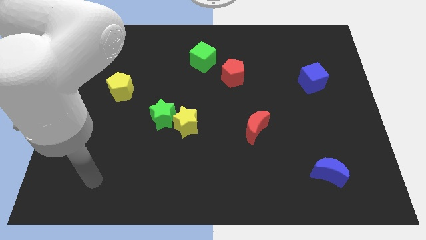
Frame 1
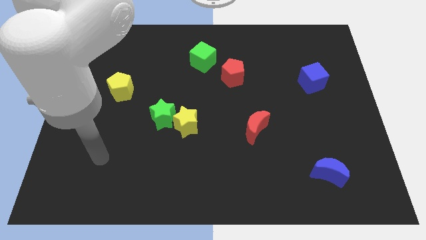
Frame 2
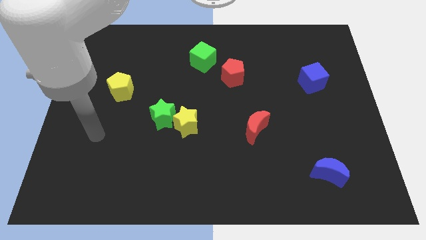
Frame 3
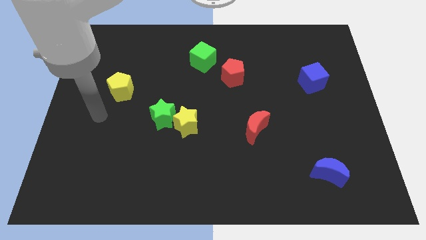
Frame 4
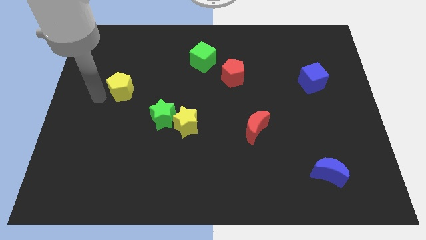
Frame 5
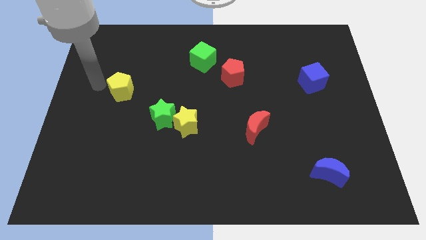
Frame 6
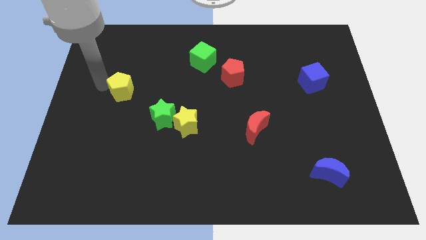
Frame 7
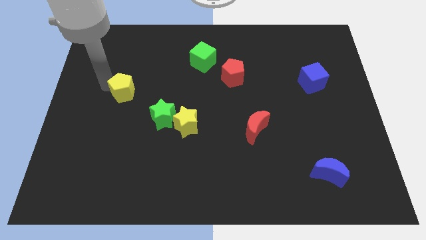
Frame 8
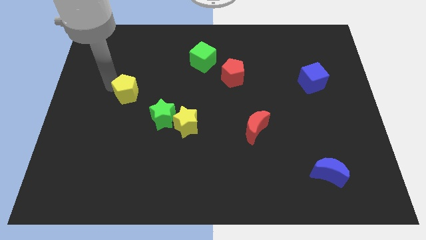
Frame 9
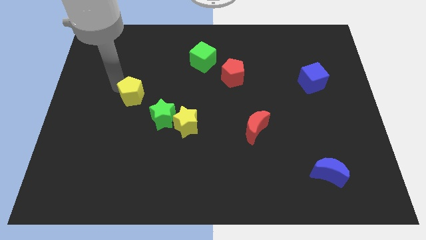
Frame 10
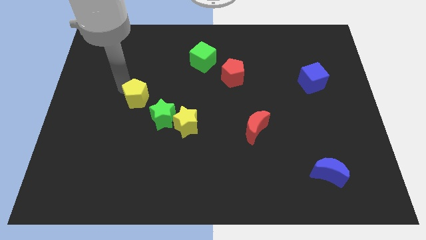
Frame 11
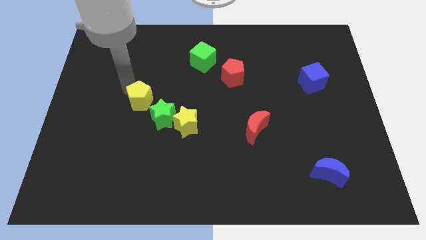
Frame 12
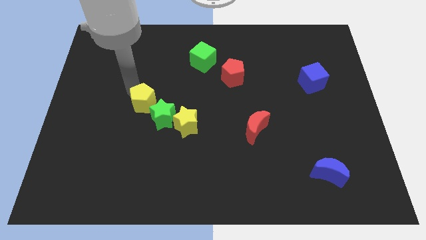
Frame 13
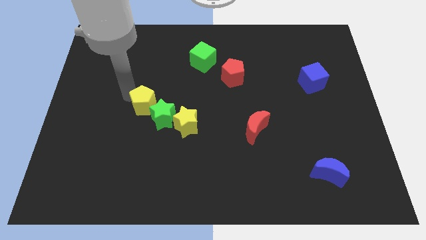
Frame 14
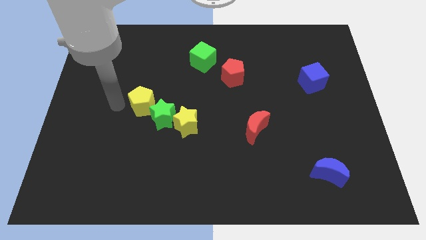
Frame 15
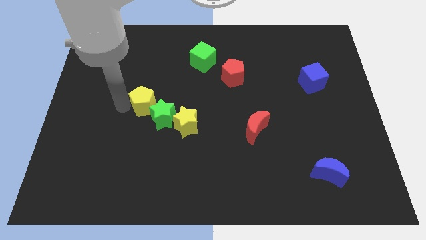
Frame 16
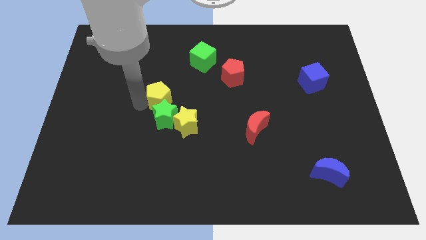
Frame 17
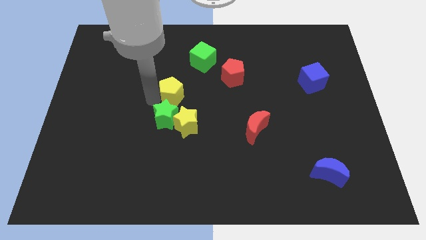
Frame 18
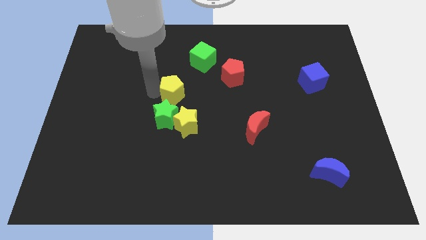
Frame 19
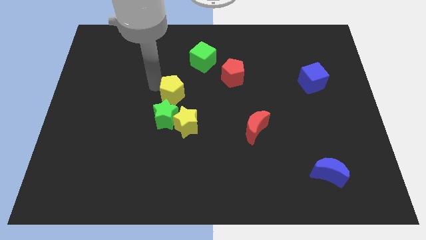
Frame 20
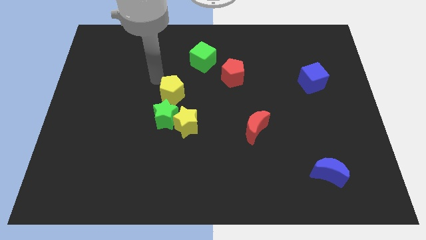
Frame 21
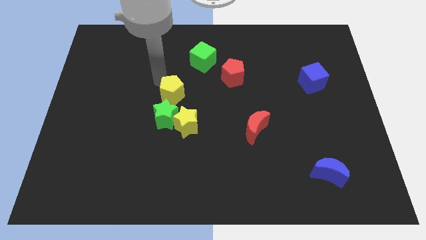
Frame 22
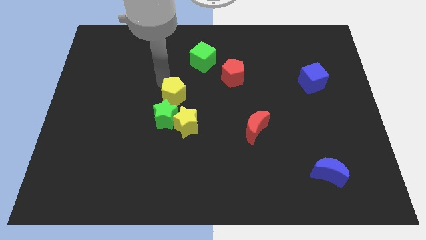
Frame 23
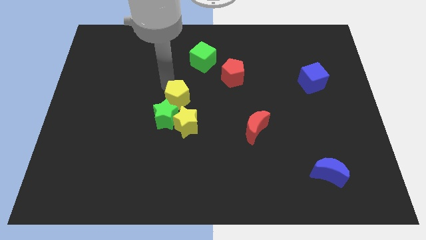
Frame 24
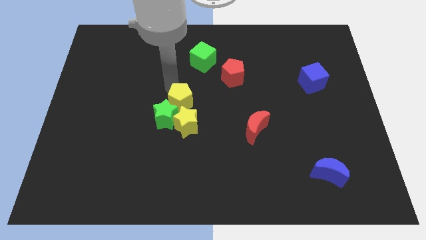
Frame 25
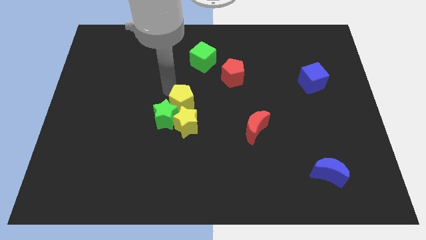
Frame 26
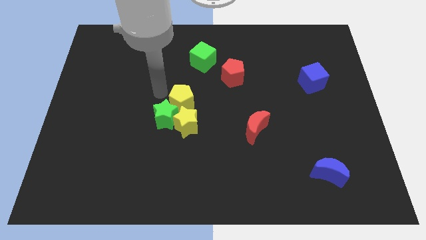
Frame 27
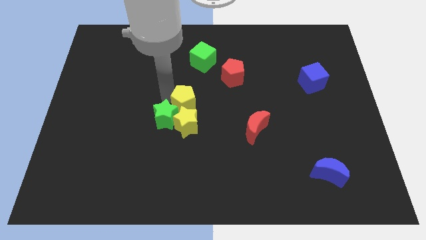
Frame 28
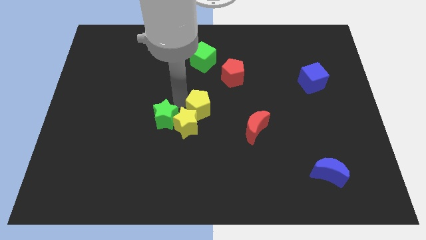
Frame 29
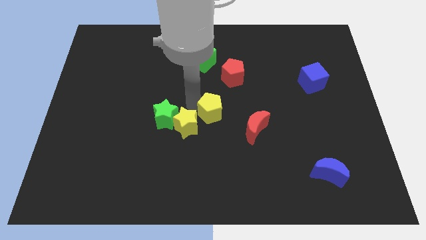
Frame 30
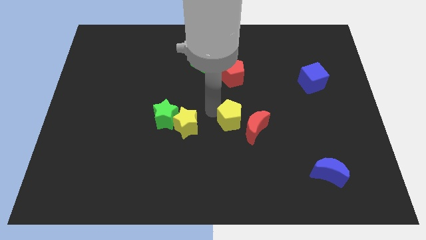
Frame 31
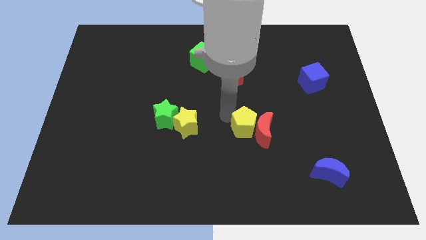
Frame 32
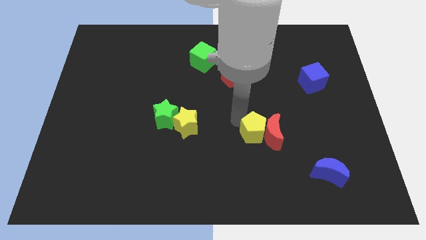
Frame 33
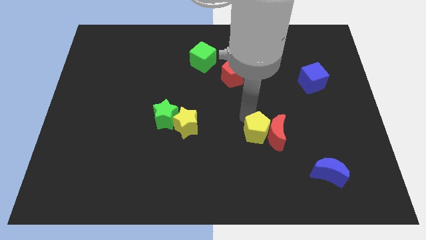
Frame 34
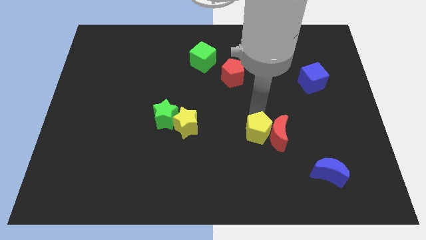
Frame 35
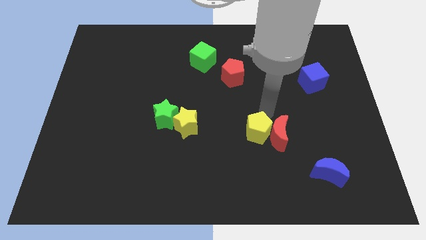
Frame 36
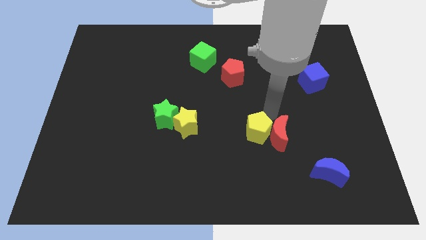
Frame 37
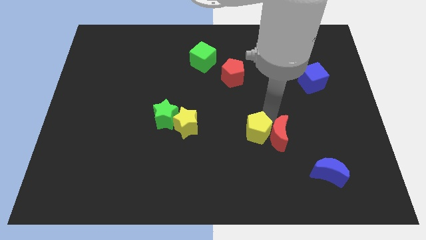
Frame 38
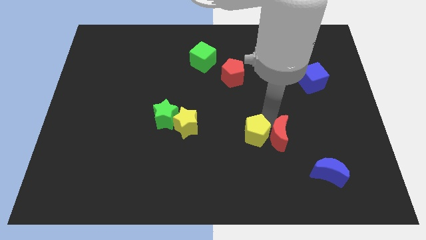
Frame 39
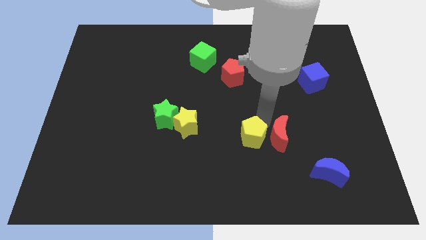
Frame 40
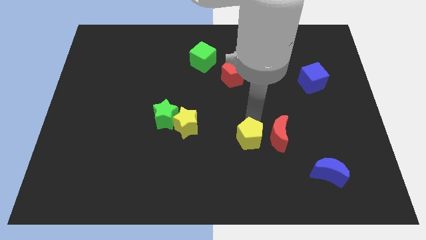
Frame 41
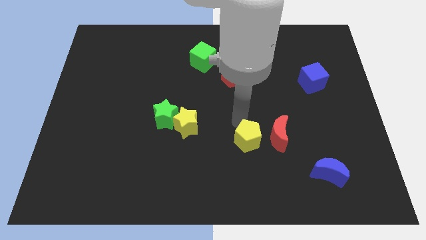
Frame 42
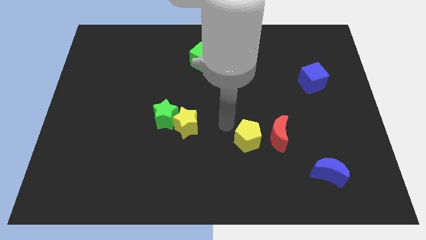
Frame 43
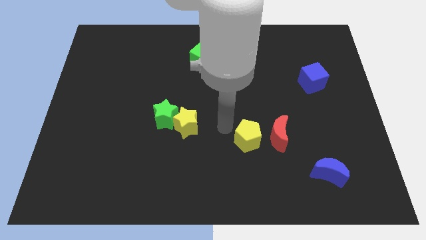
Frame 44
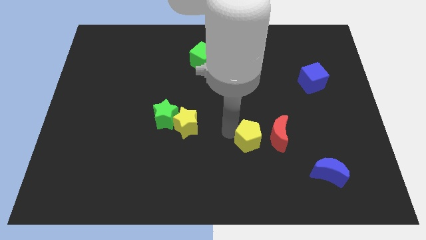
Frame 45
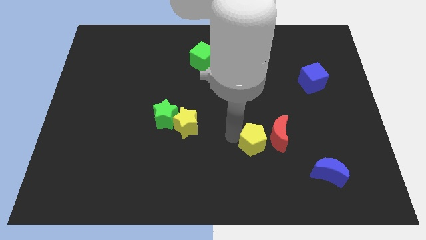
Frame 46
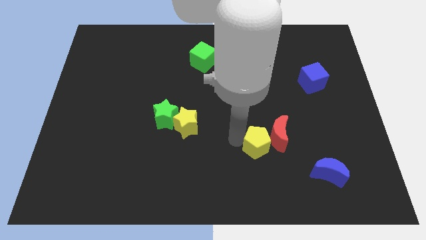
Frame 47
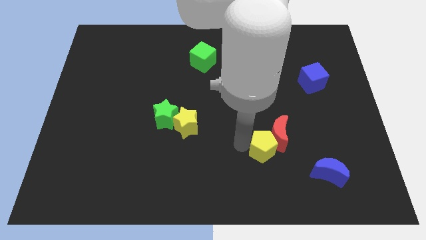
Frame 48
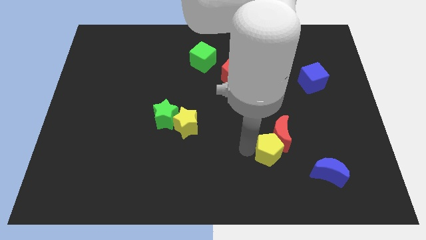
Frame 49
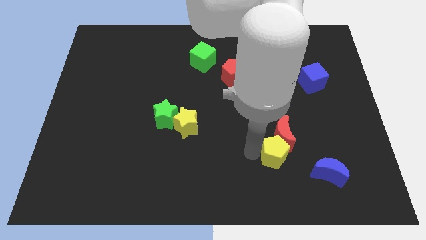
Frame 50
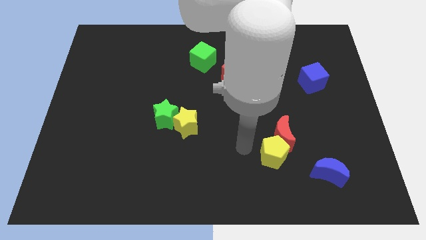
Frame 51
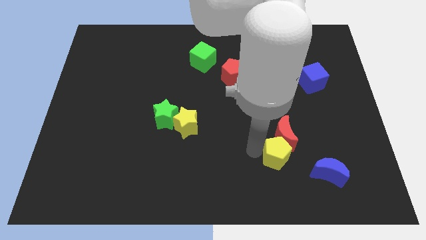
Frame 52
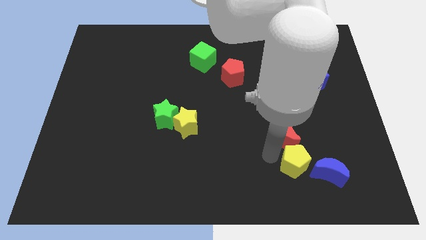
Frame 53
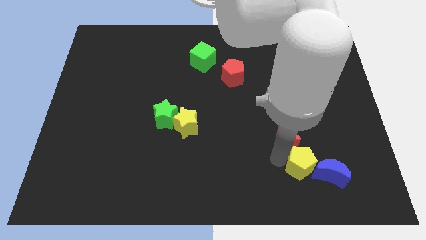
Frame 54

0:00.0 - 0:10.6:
put the yellow pentagon next to the blue moon

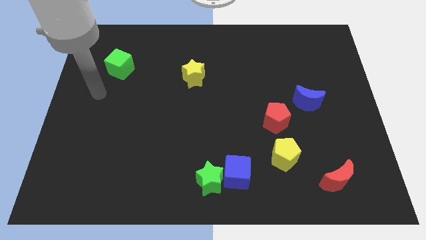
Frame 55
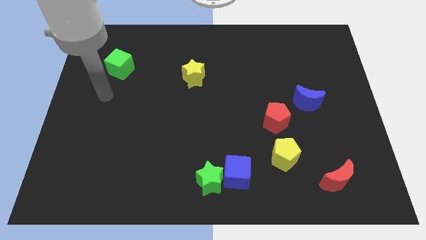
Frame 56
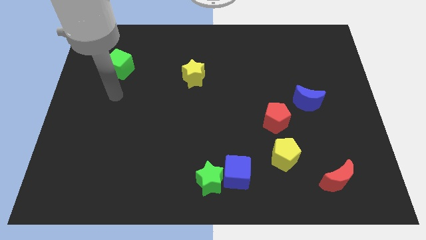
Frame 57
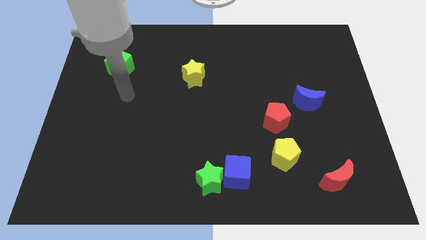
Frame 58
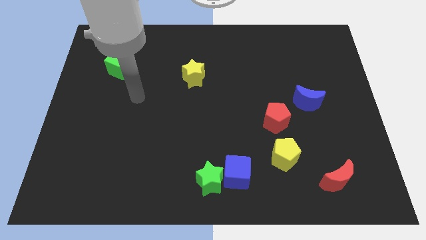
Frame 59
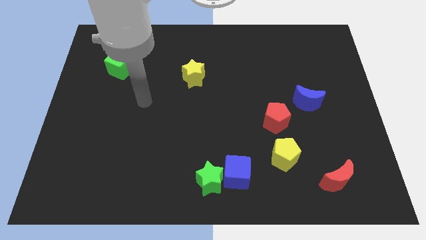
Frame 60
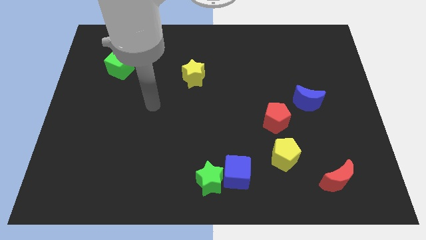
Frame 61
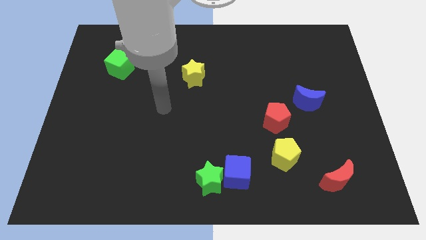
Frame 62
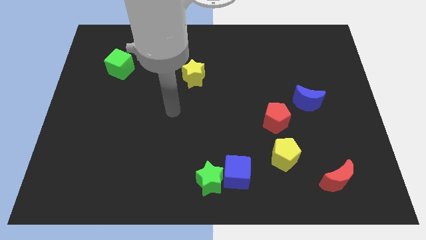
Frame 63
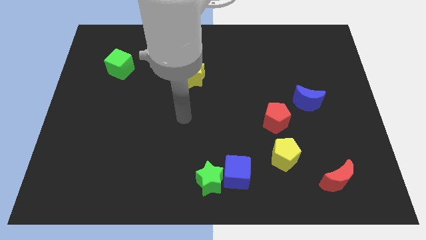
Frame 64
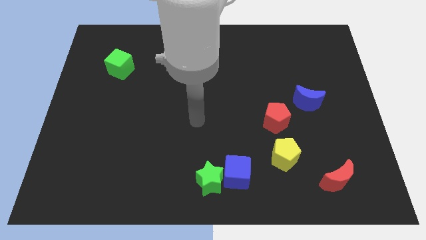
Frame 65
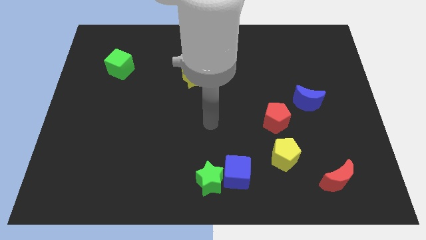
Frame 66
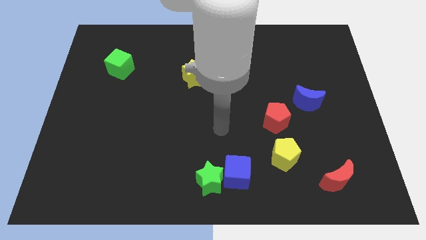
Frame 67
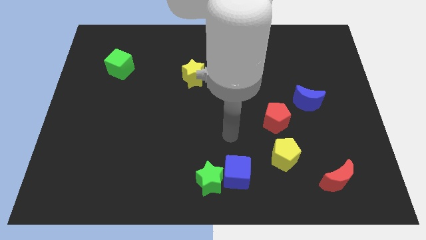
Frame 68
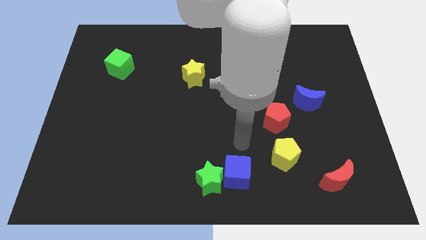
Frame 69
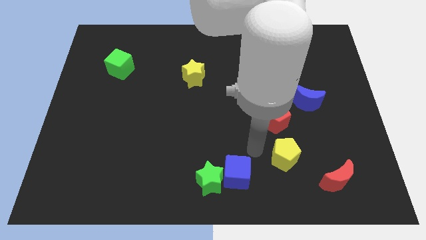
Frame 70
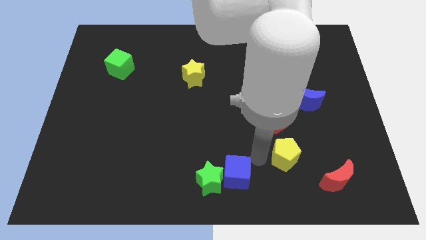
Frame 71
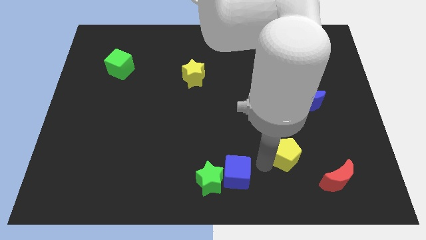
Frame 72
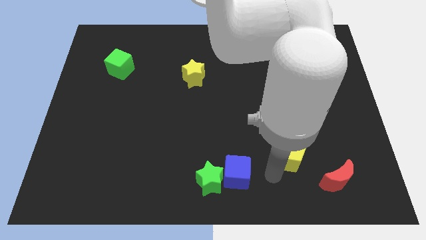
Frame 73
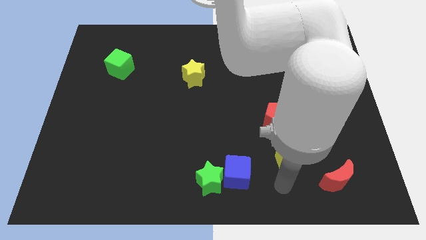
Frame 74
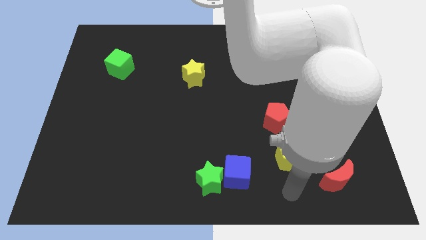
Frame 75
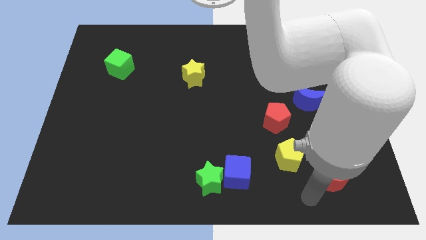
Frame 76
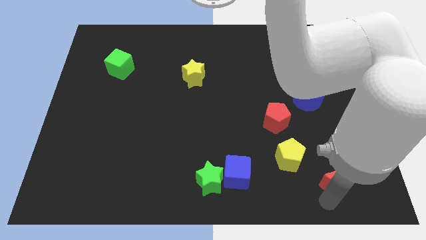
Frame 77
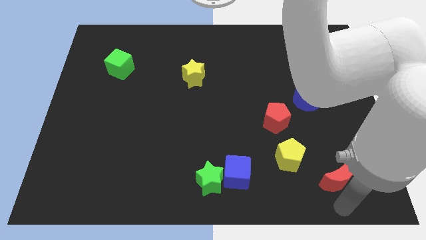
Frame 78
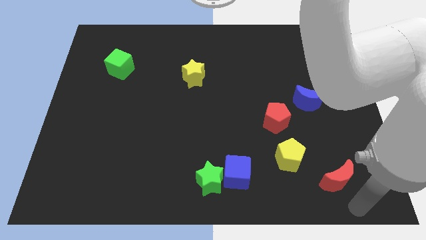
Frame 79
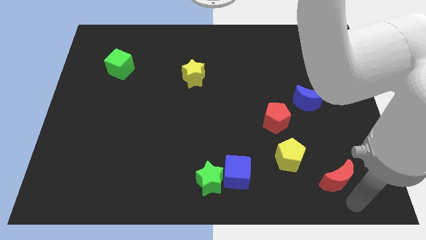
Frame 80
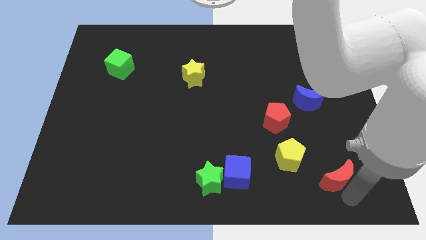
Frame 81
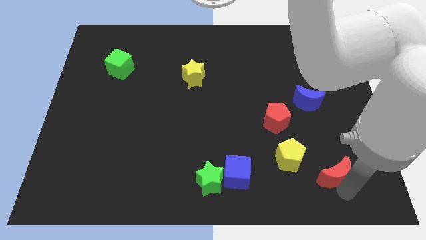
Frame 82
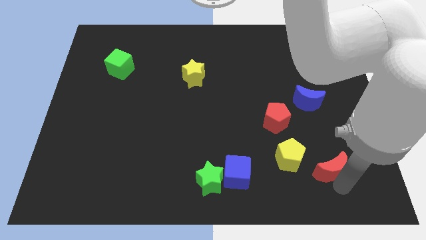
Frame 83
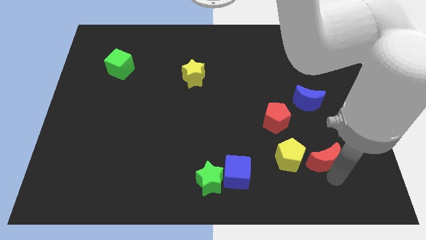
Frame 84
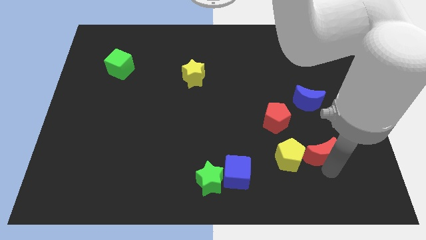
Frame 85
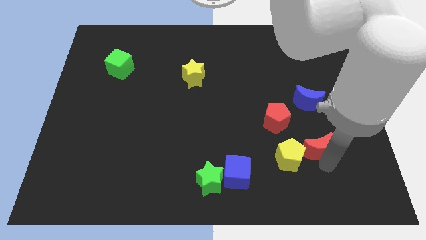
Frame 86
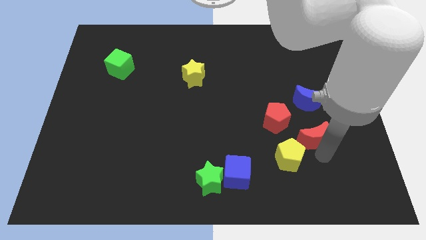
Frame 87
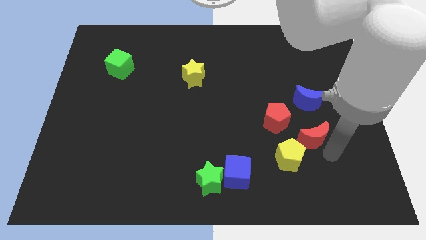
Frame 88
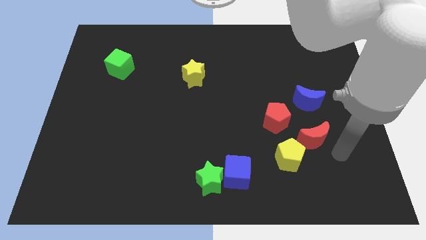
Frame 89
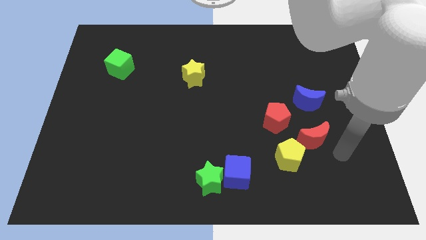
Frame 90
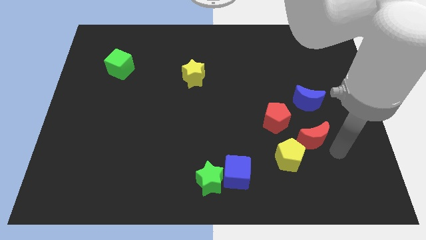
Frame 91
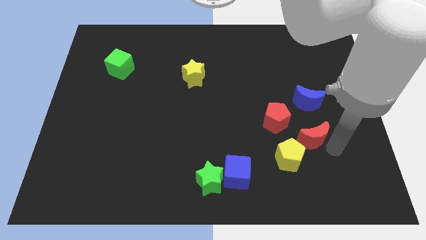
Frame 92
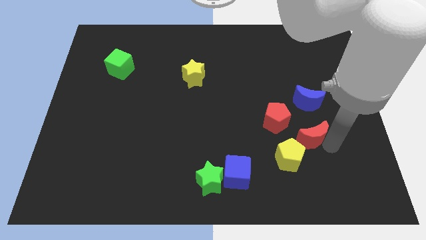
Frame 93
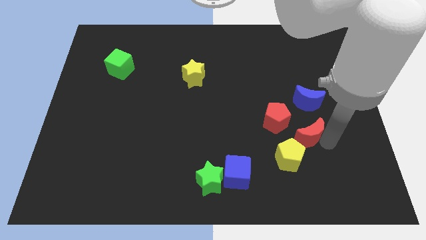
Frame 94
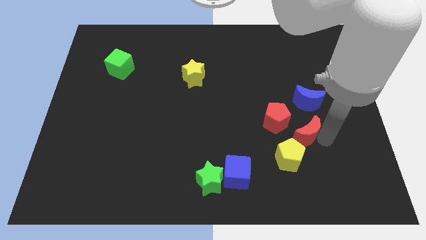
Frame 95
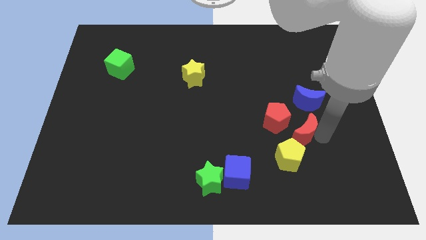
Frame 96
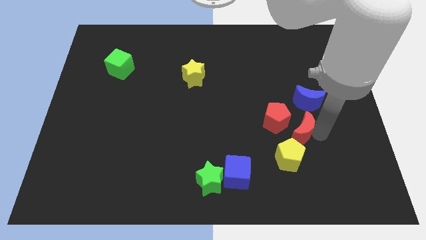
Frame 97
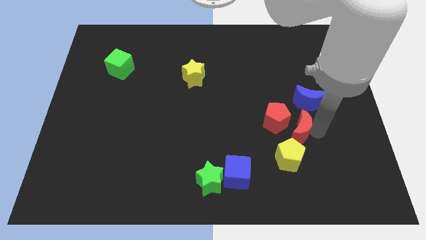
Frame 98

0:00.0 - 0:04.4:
put the red moon close to the red pentagon
